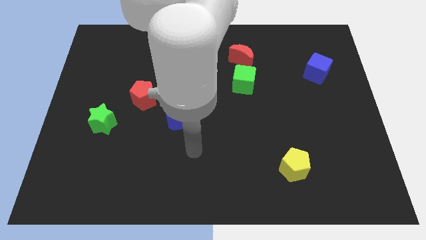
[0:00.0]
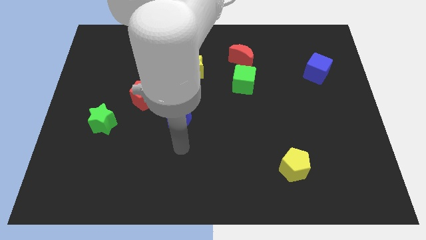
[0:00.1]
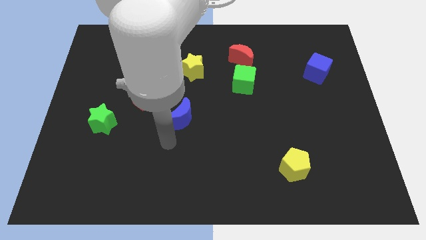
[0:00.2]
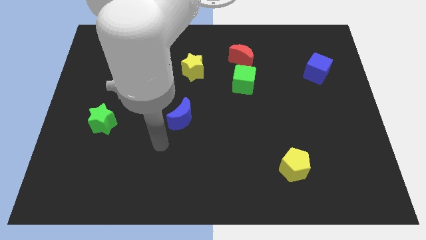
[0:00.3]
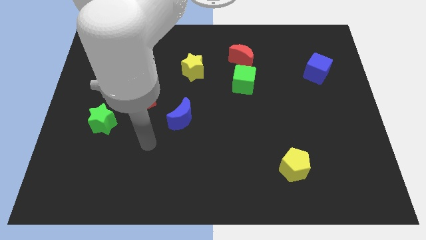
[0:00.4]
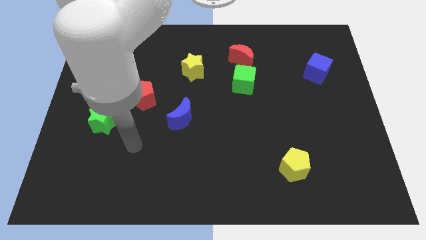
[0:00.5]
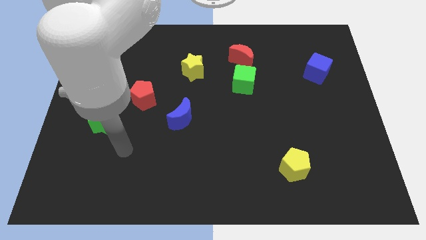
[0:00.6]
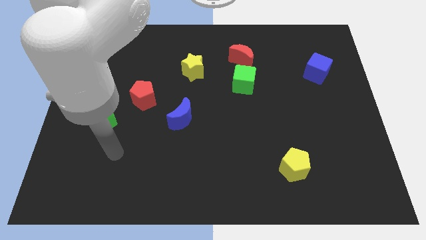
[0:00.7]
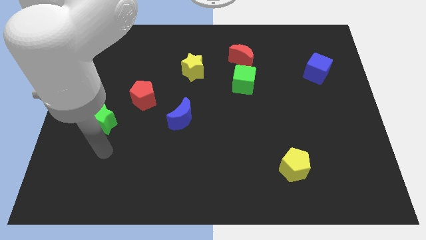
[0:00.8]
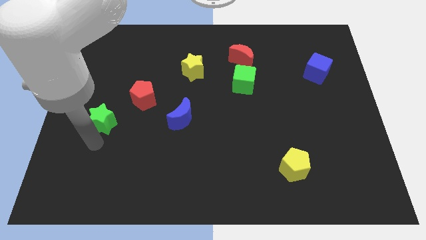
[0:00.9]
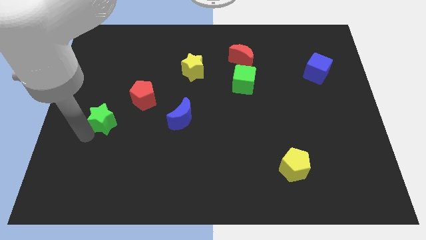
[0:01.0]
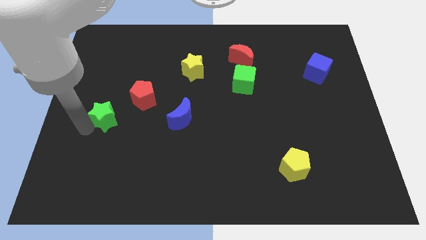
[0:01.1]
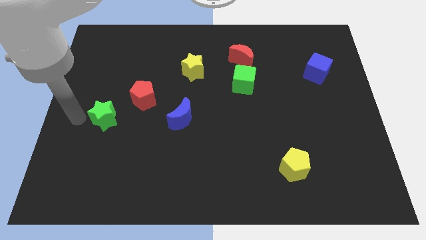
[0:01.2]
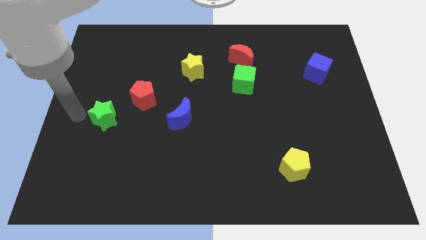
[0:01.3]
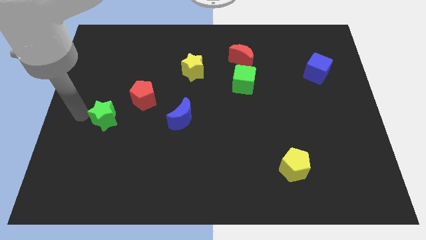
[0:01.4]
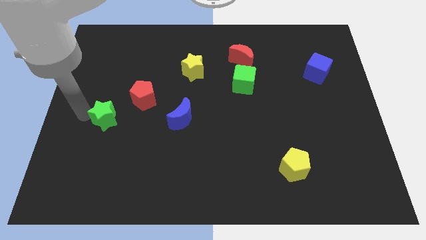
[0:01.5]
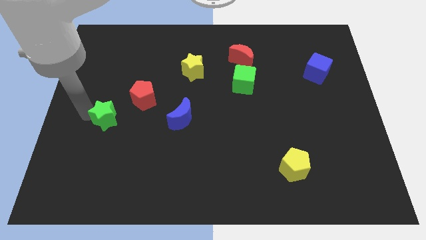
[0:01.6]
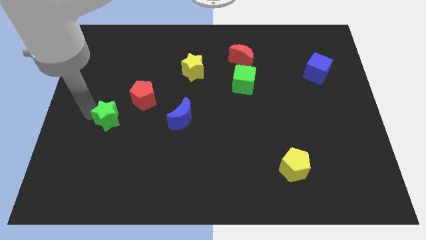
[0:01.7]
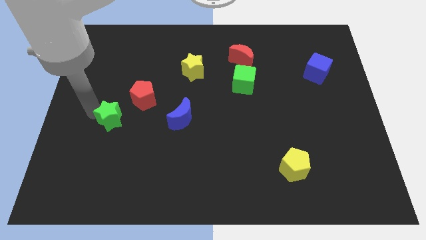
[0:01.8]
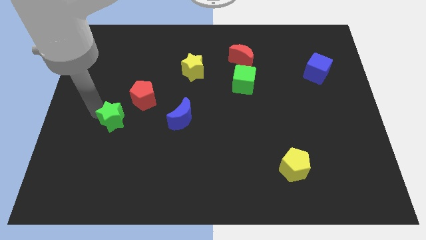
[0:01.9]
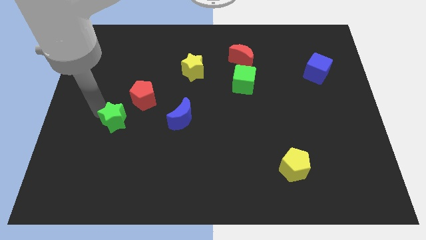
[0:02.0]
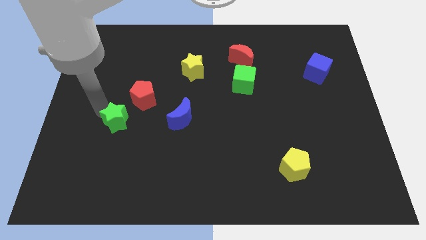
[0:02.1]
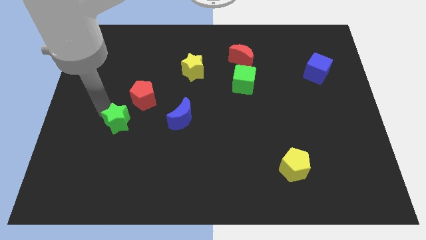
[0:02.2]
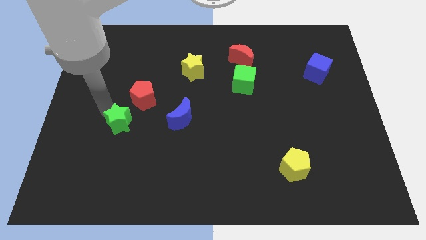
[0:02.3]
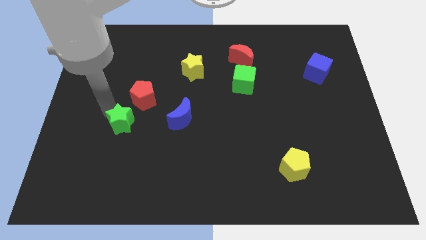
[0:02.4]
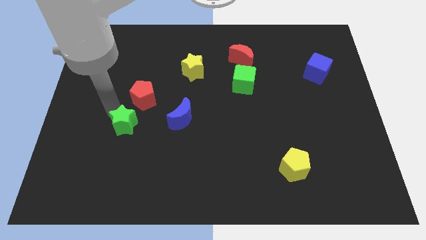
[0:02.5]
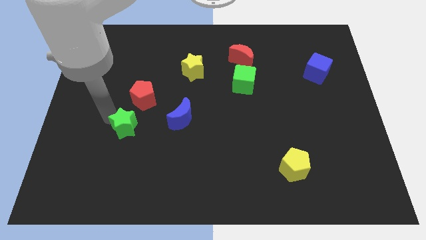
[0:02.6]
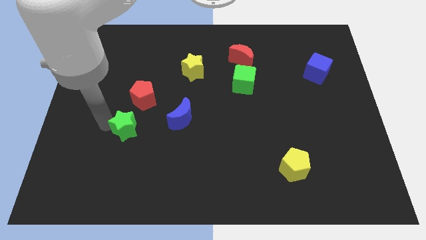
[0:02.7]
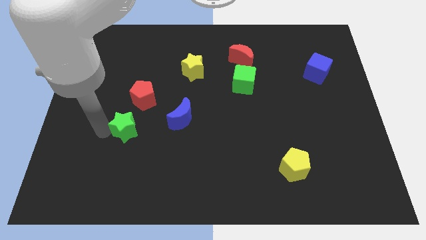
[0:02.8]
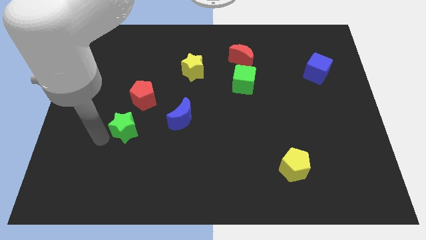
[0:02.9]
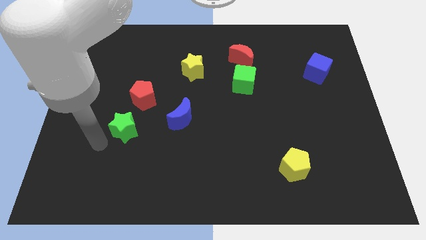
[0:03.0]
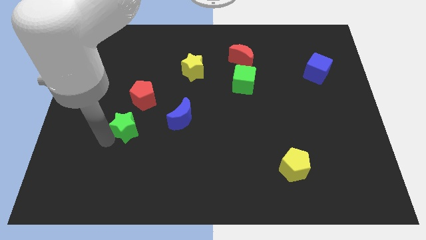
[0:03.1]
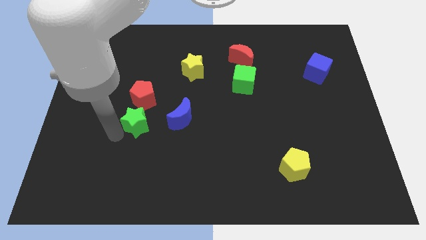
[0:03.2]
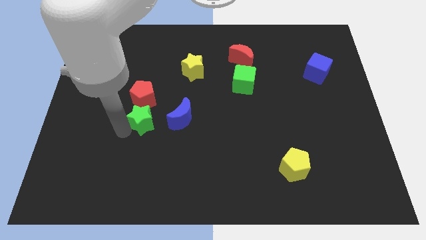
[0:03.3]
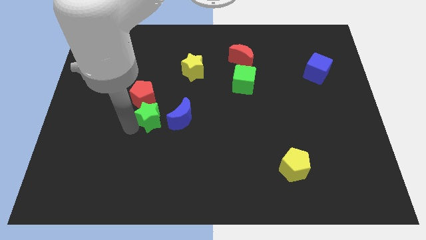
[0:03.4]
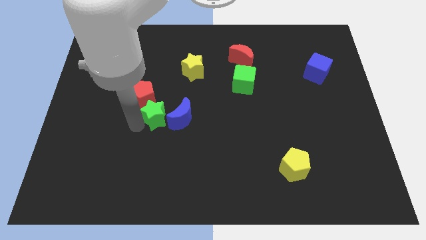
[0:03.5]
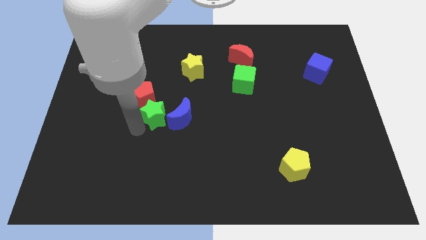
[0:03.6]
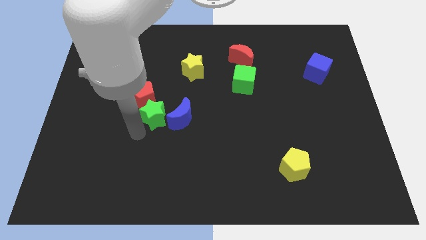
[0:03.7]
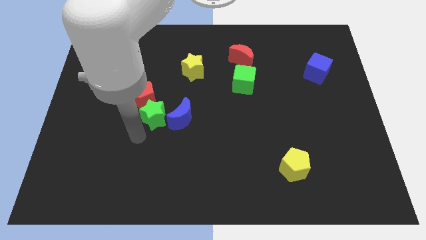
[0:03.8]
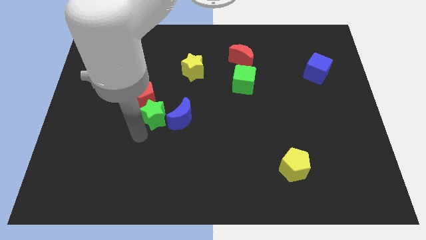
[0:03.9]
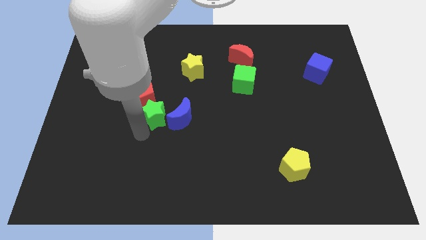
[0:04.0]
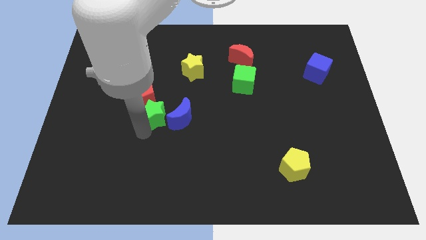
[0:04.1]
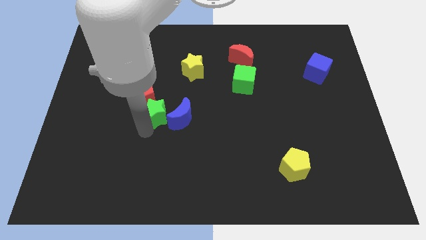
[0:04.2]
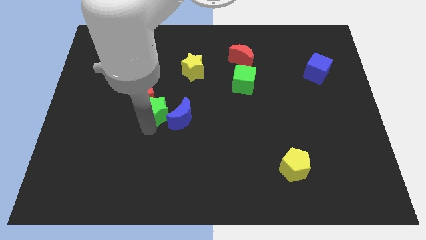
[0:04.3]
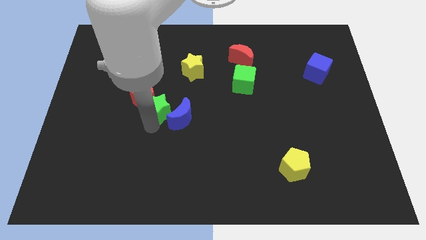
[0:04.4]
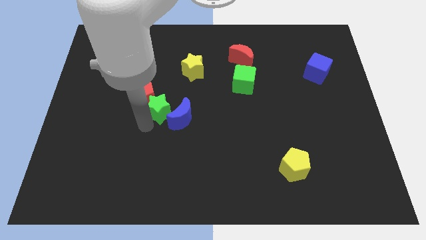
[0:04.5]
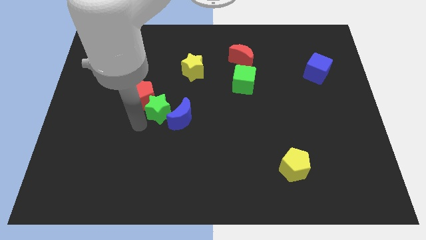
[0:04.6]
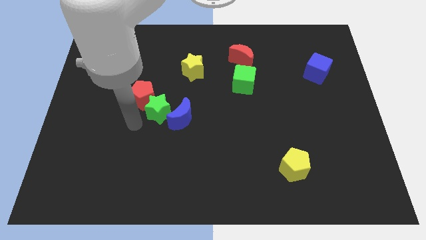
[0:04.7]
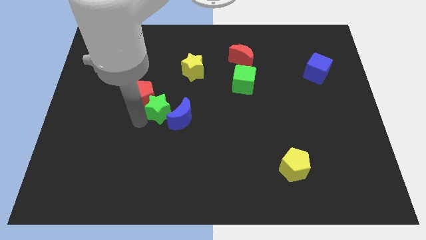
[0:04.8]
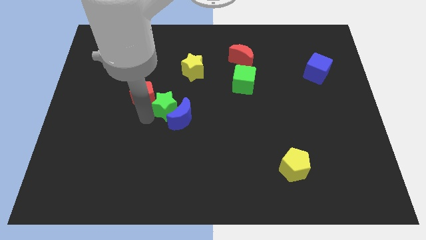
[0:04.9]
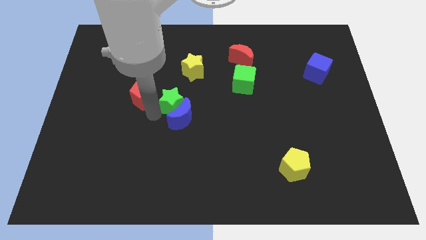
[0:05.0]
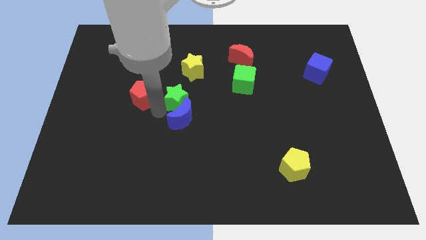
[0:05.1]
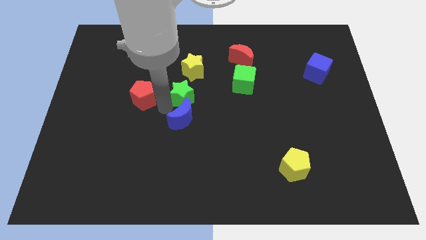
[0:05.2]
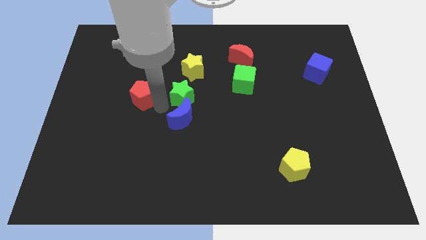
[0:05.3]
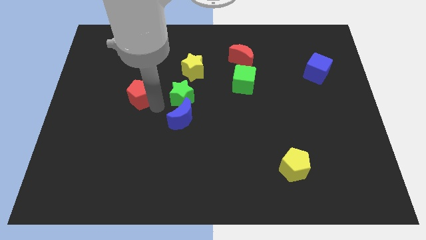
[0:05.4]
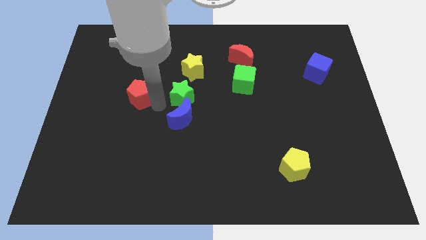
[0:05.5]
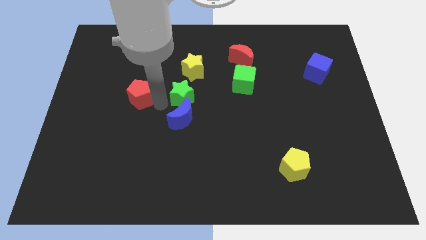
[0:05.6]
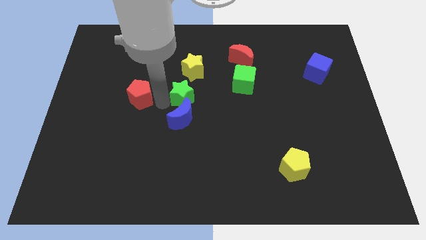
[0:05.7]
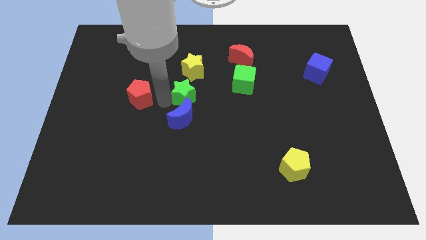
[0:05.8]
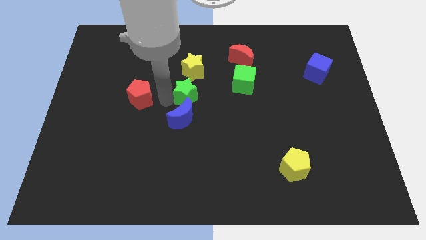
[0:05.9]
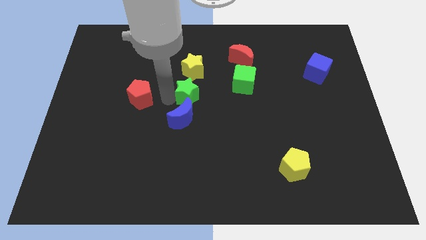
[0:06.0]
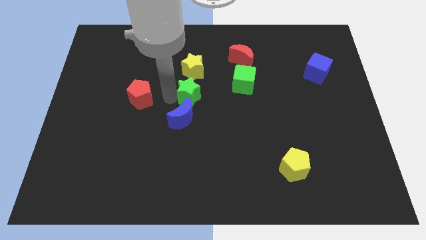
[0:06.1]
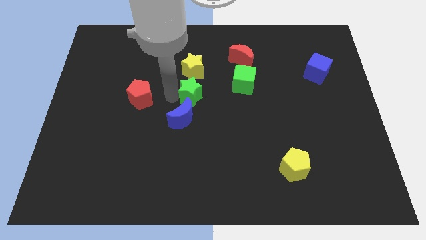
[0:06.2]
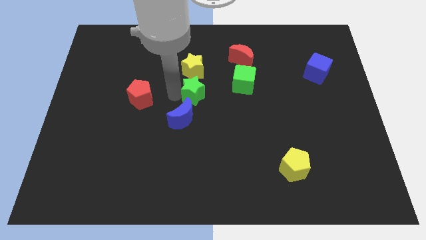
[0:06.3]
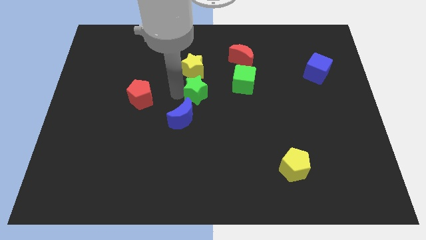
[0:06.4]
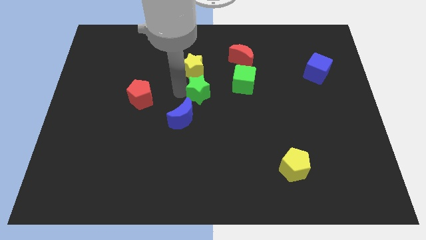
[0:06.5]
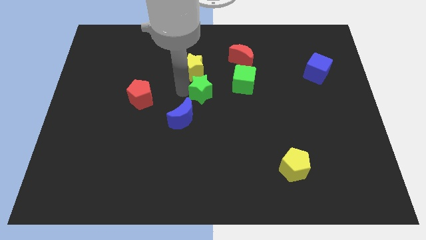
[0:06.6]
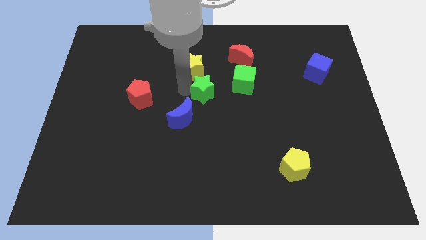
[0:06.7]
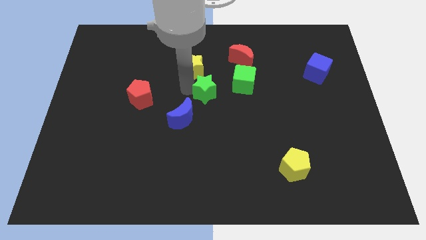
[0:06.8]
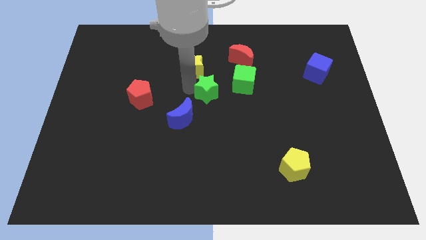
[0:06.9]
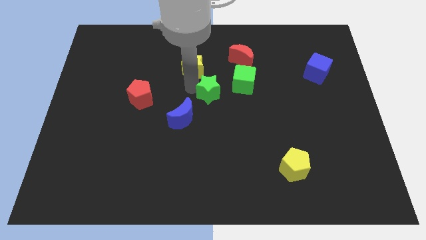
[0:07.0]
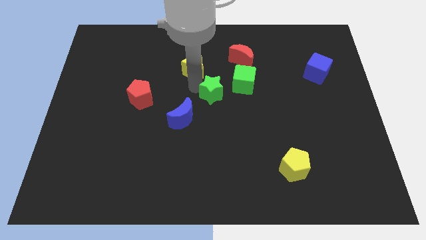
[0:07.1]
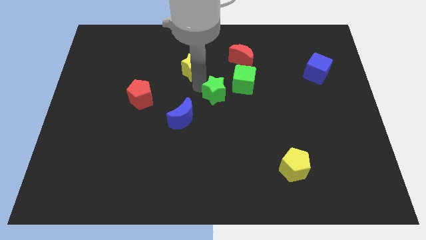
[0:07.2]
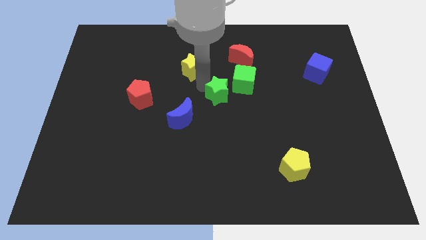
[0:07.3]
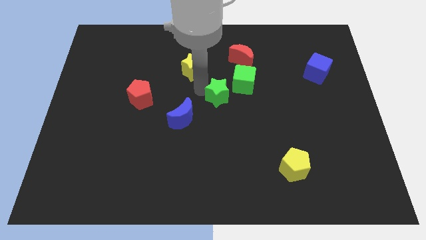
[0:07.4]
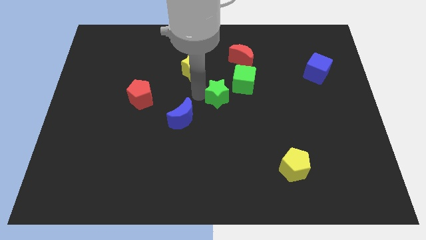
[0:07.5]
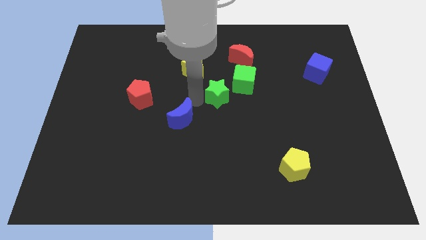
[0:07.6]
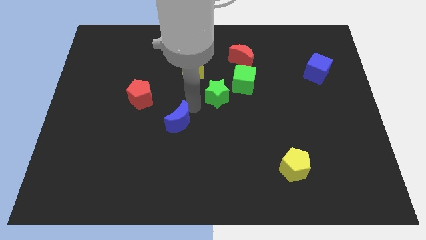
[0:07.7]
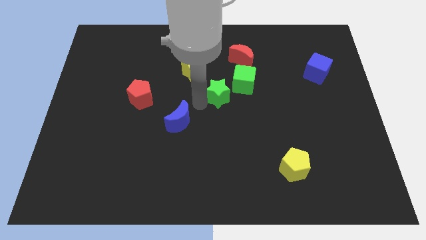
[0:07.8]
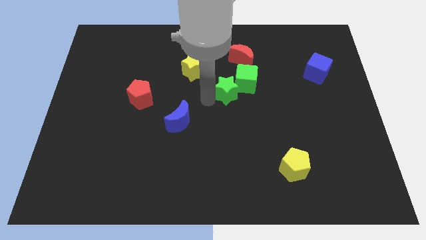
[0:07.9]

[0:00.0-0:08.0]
put the green star next to the green cube
